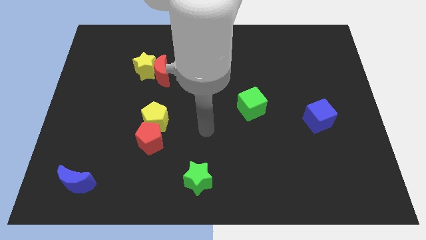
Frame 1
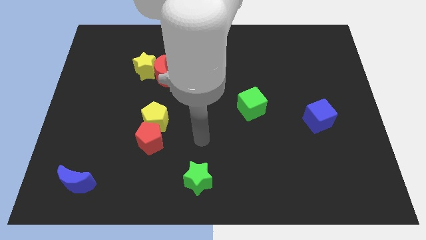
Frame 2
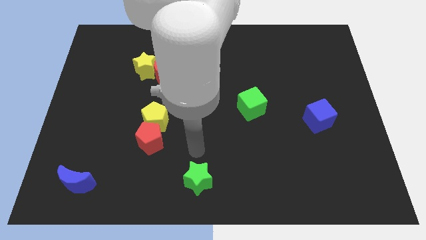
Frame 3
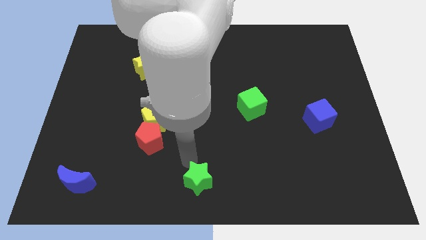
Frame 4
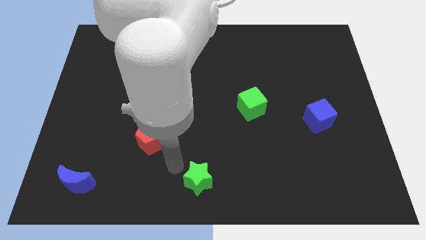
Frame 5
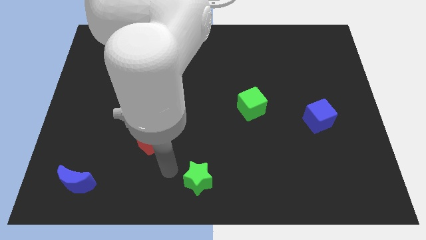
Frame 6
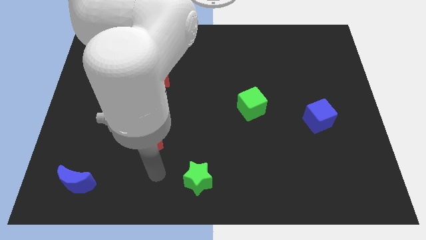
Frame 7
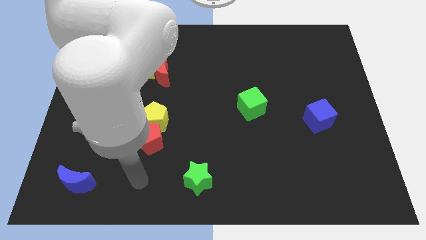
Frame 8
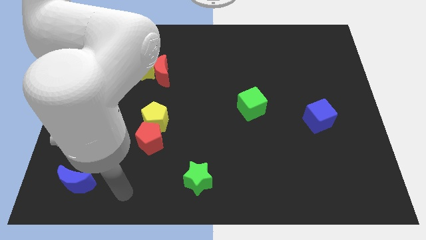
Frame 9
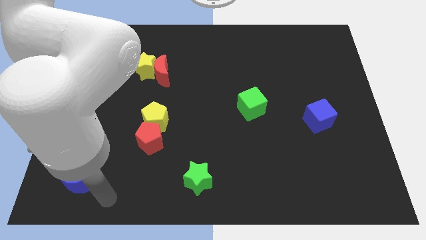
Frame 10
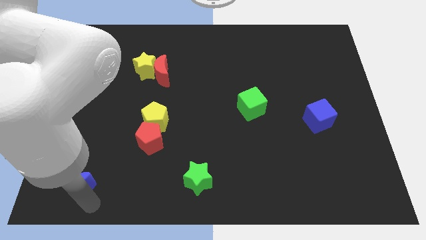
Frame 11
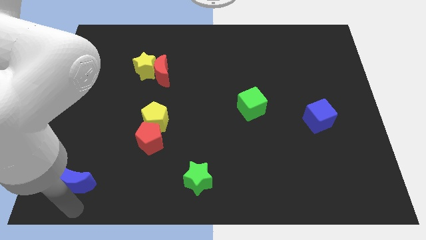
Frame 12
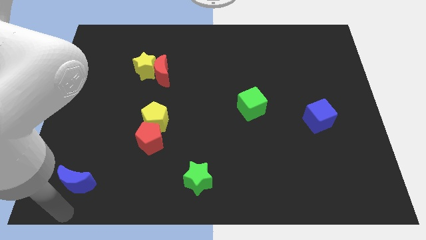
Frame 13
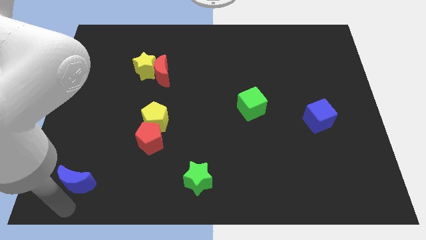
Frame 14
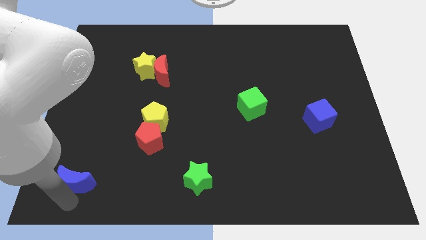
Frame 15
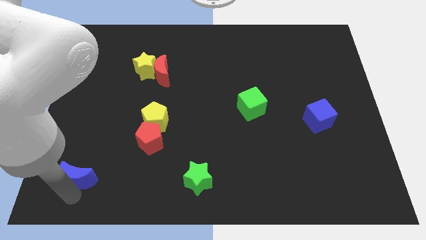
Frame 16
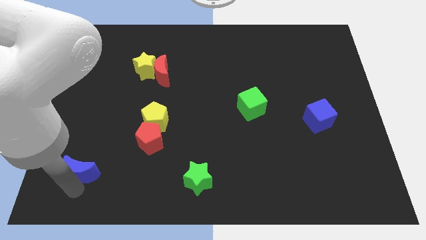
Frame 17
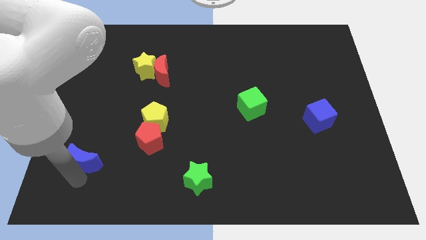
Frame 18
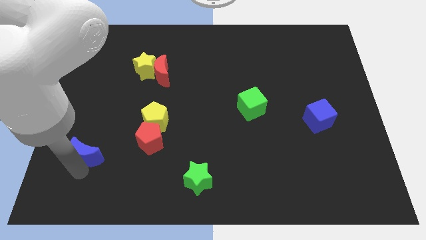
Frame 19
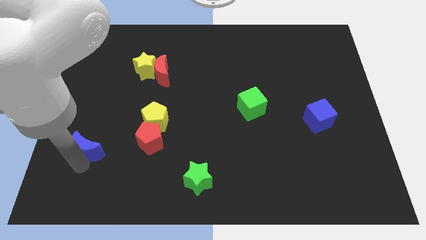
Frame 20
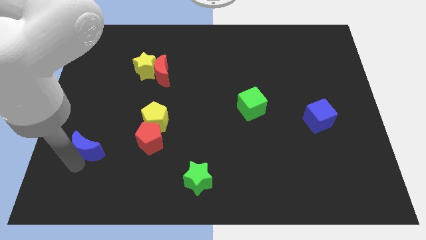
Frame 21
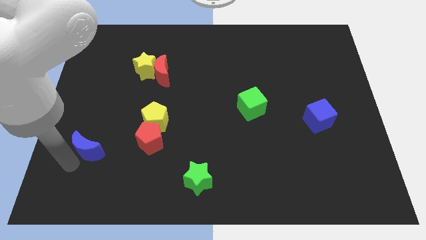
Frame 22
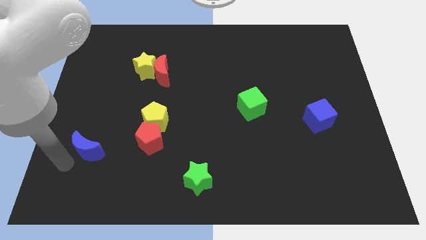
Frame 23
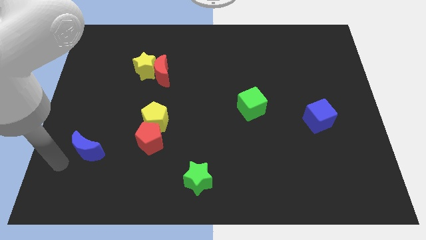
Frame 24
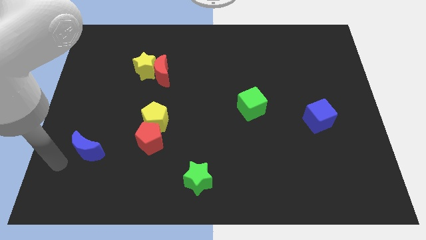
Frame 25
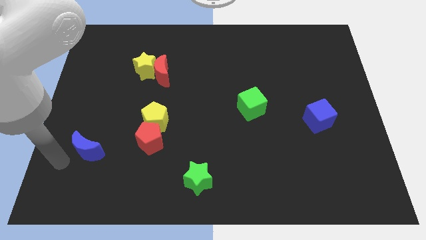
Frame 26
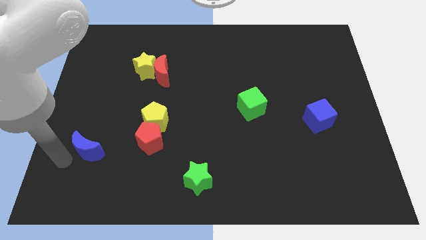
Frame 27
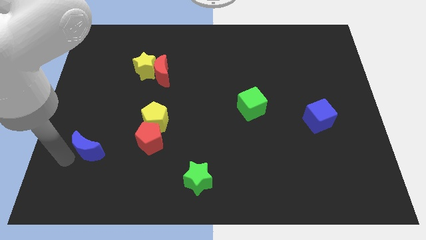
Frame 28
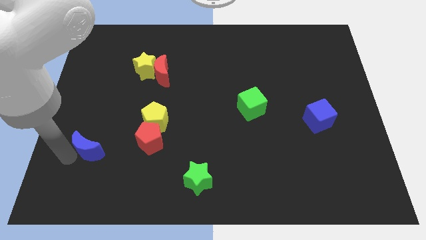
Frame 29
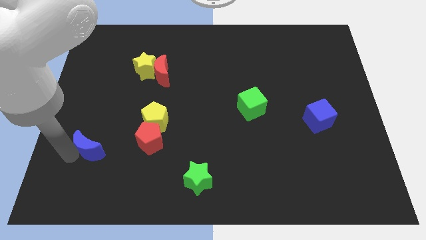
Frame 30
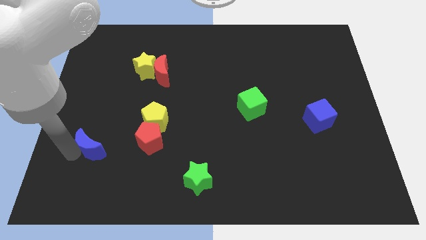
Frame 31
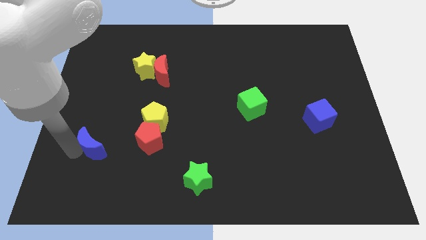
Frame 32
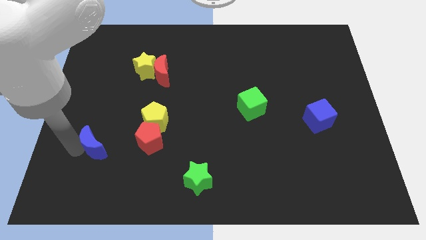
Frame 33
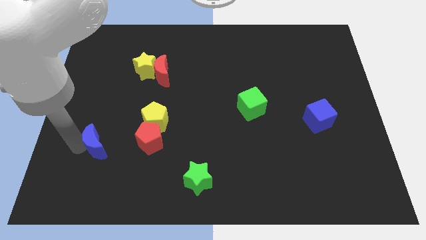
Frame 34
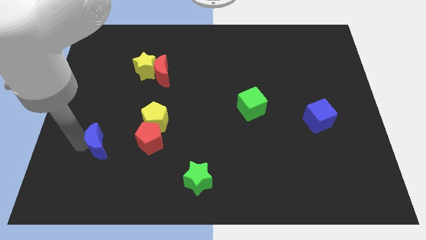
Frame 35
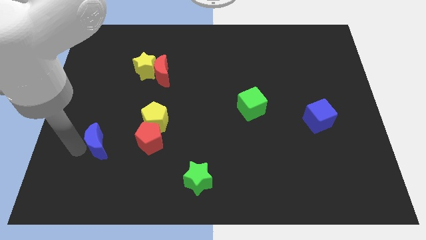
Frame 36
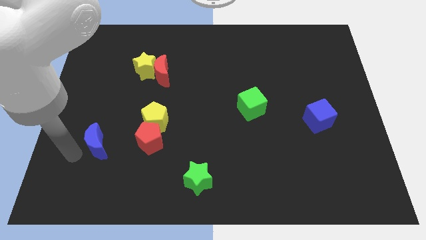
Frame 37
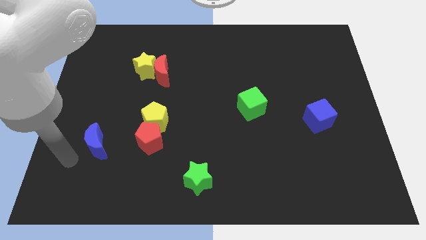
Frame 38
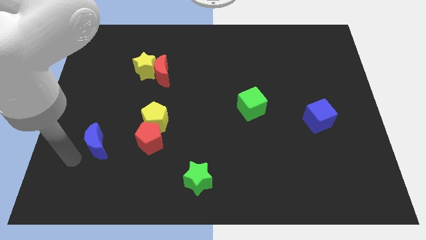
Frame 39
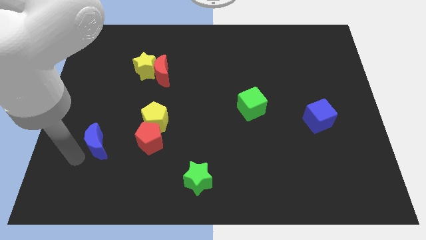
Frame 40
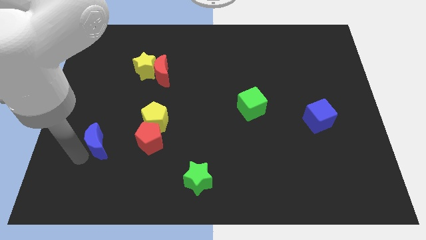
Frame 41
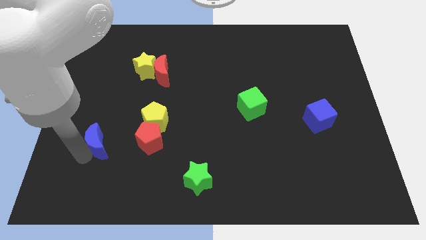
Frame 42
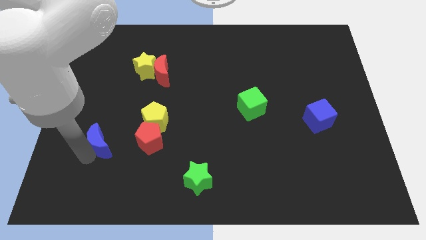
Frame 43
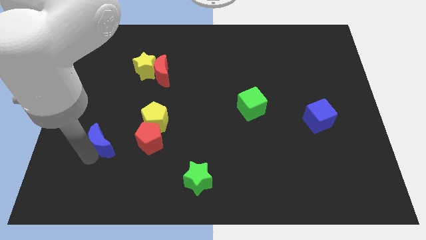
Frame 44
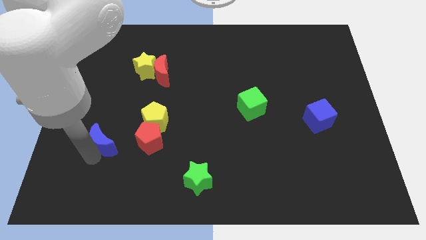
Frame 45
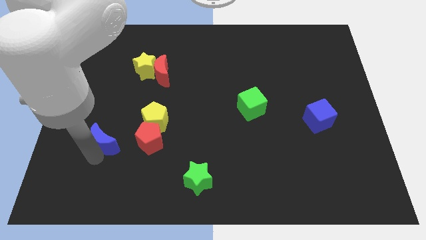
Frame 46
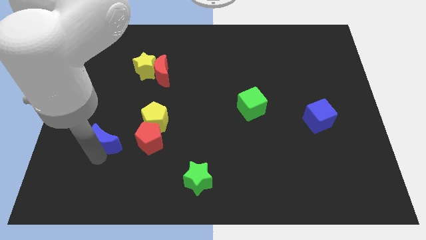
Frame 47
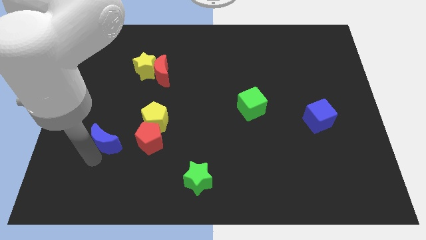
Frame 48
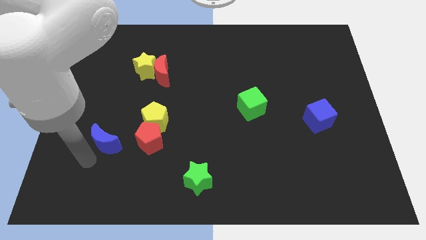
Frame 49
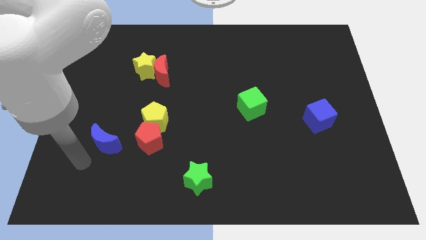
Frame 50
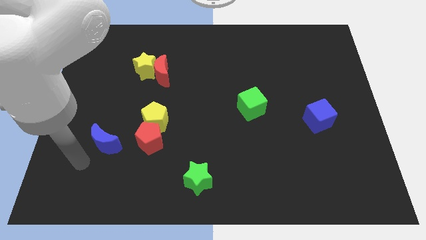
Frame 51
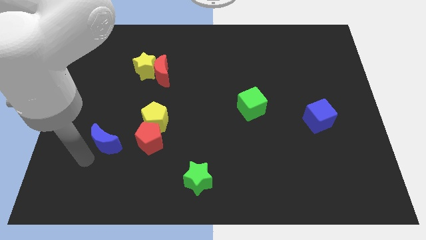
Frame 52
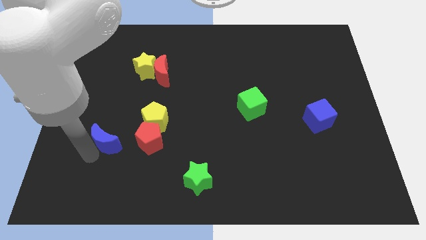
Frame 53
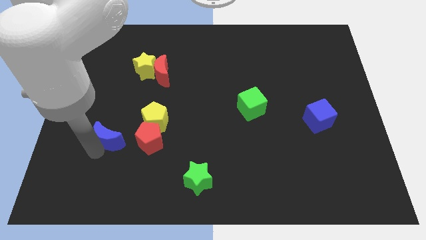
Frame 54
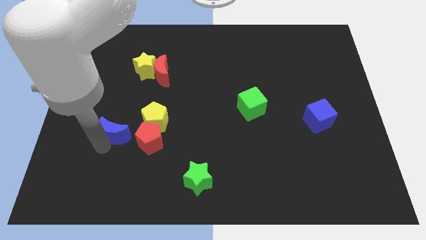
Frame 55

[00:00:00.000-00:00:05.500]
push the blue moon diagonally up and to the left of the red pentagon

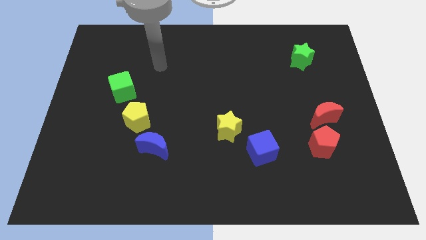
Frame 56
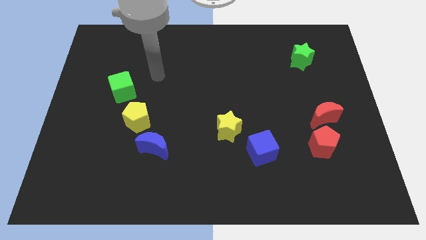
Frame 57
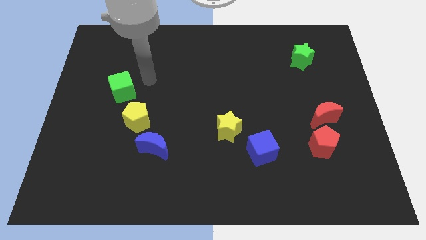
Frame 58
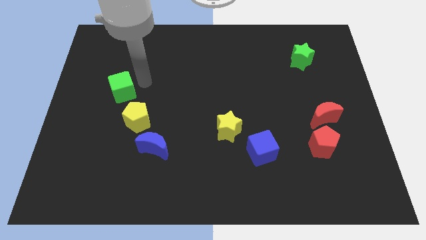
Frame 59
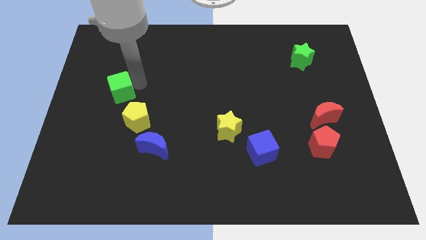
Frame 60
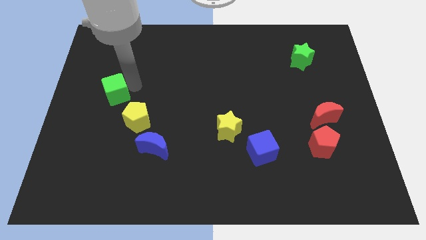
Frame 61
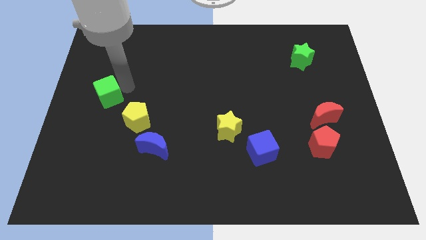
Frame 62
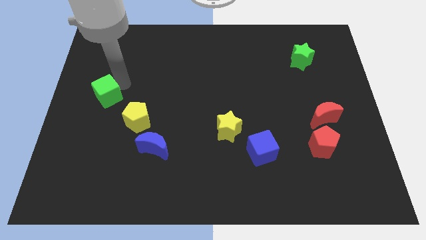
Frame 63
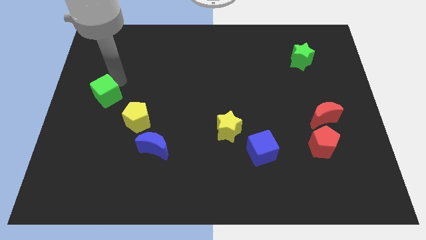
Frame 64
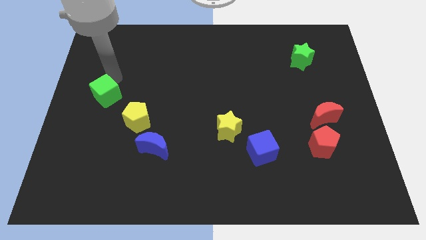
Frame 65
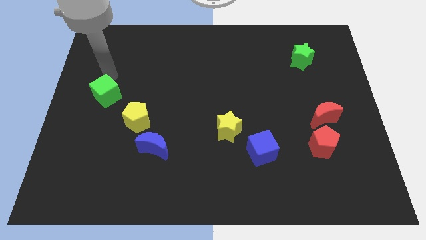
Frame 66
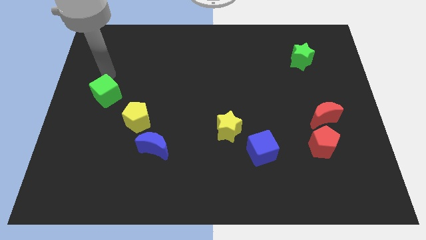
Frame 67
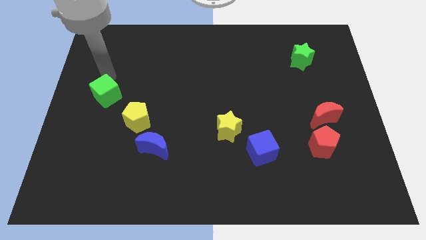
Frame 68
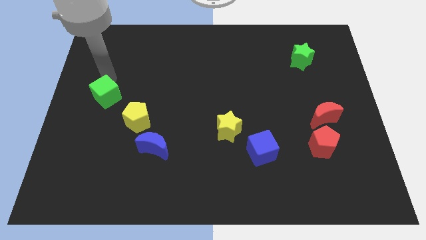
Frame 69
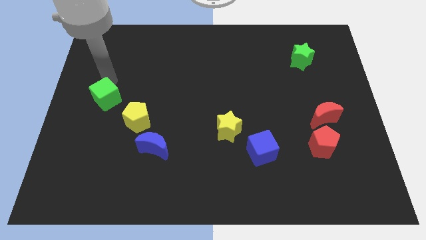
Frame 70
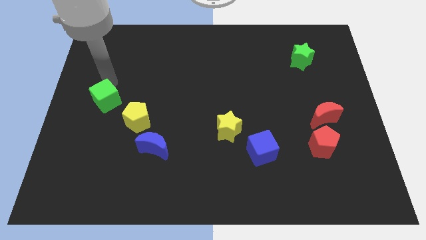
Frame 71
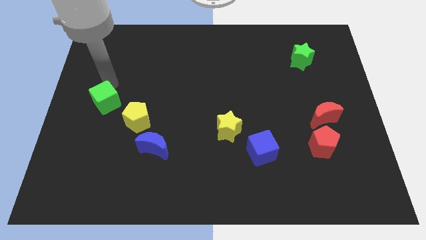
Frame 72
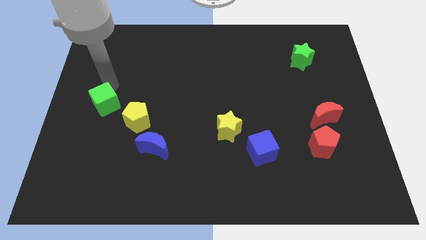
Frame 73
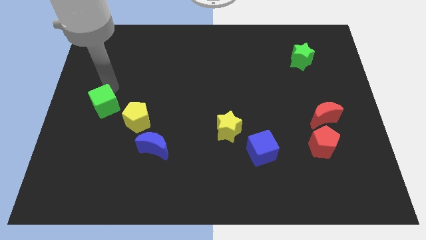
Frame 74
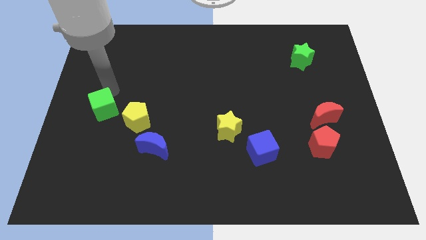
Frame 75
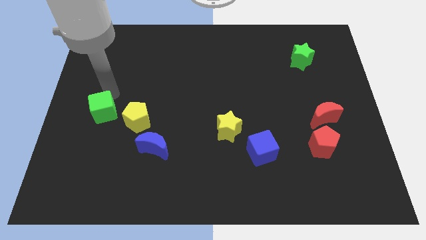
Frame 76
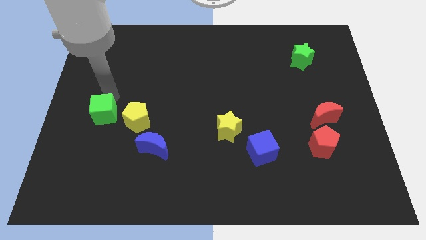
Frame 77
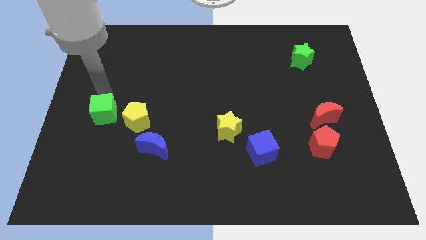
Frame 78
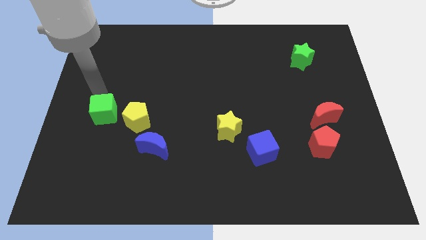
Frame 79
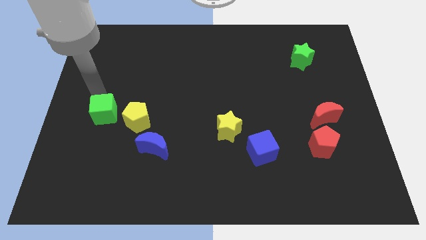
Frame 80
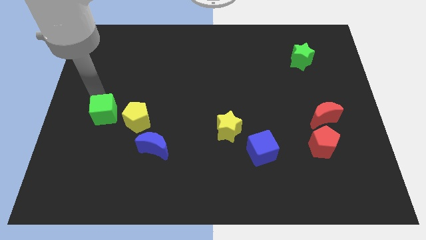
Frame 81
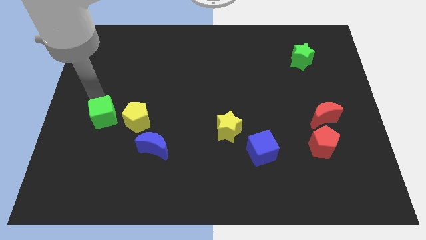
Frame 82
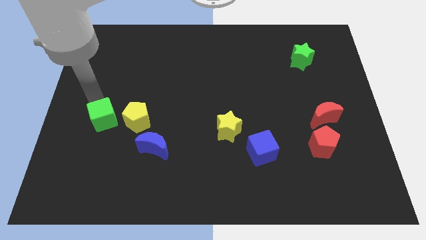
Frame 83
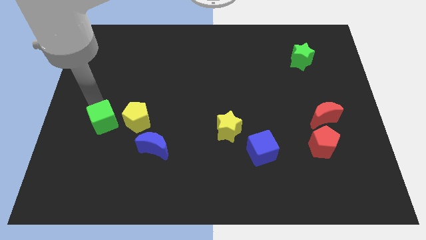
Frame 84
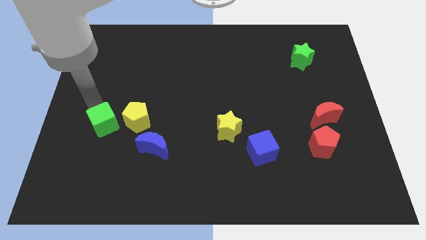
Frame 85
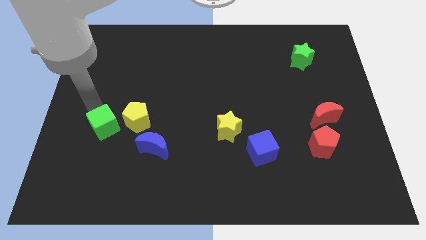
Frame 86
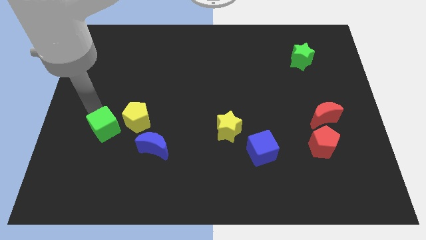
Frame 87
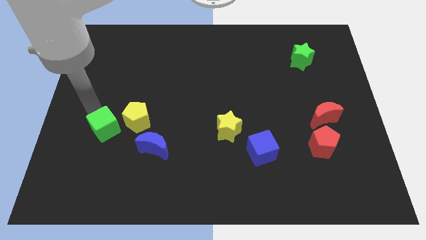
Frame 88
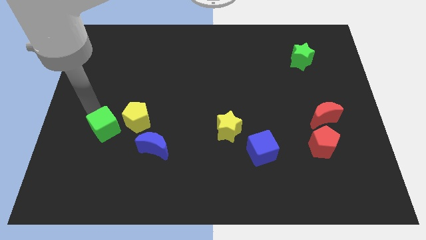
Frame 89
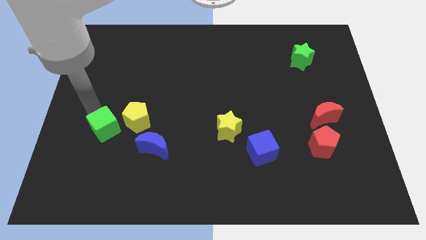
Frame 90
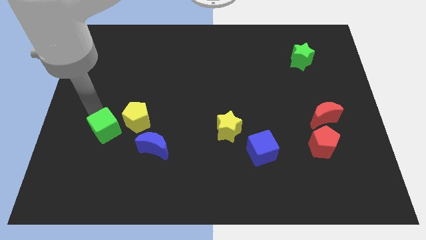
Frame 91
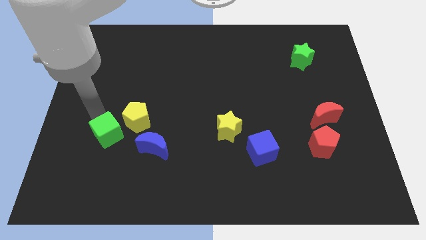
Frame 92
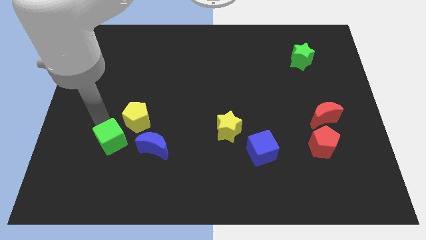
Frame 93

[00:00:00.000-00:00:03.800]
put the green cube to the bottom of the yellow pentagon
